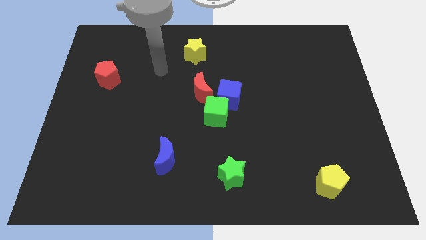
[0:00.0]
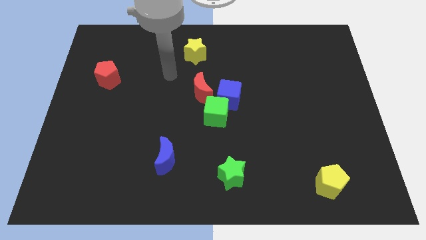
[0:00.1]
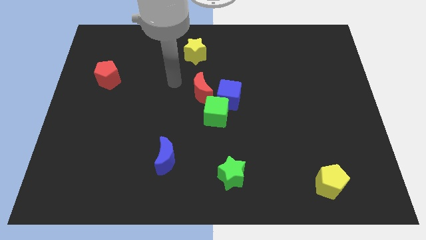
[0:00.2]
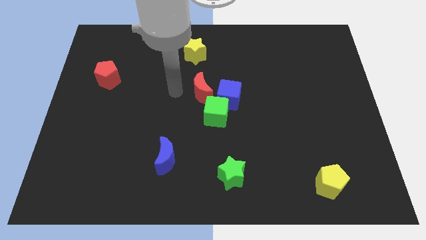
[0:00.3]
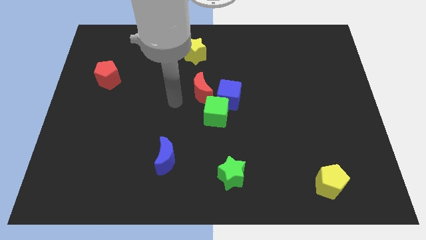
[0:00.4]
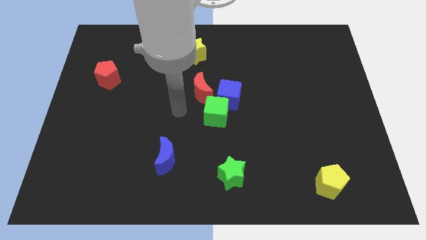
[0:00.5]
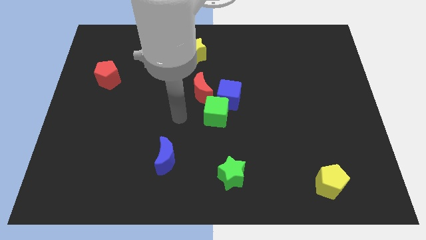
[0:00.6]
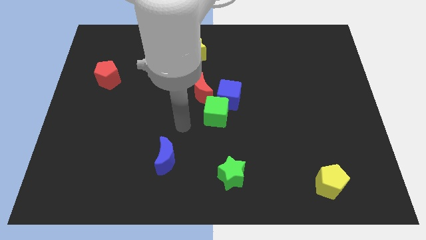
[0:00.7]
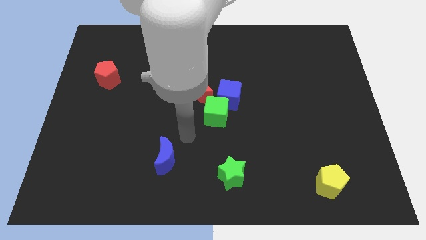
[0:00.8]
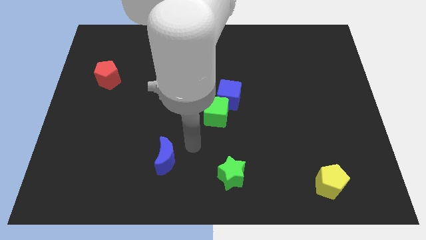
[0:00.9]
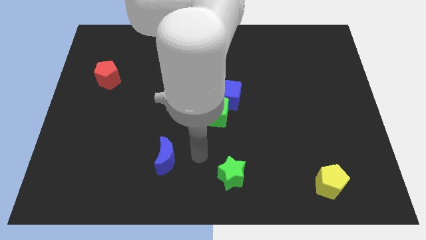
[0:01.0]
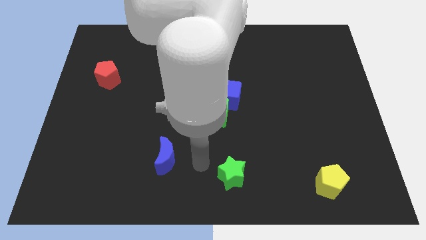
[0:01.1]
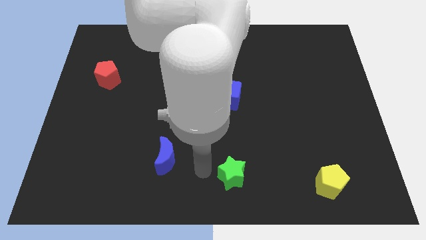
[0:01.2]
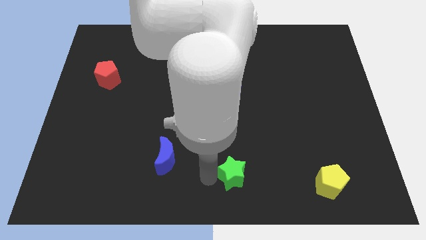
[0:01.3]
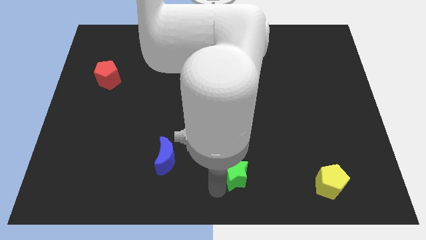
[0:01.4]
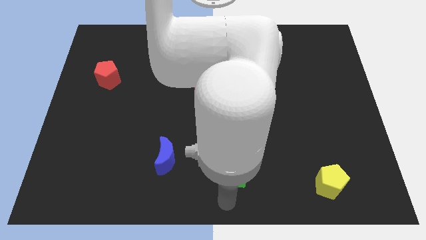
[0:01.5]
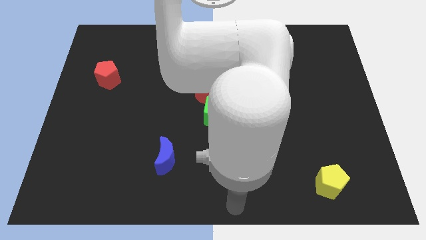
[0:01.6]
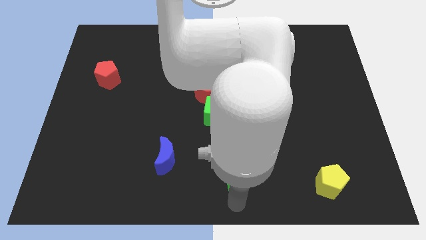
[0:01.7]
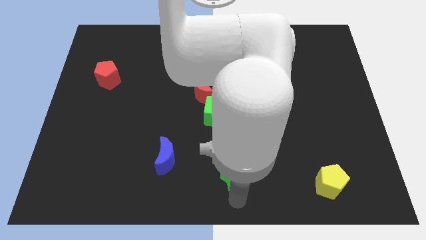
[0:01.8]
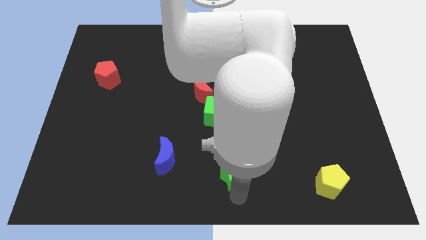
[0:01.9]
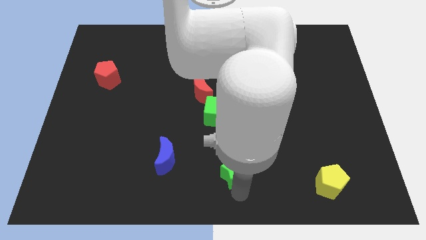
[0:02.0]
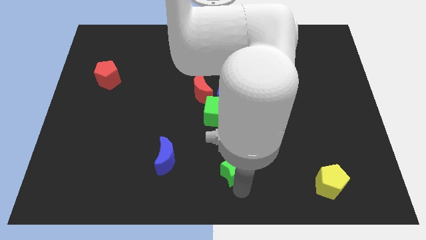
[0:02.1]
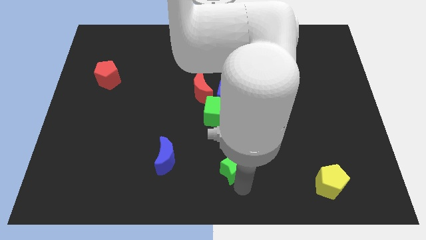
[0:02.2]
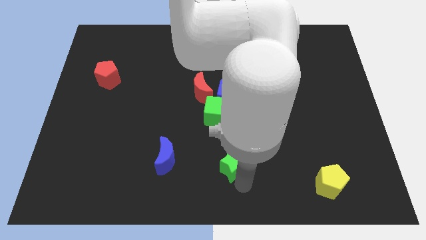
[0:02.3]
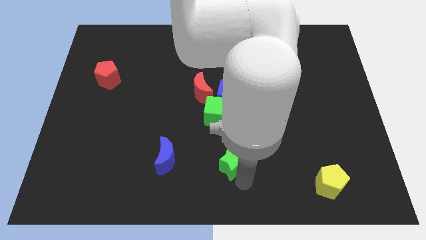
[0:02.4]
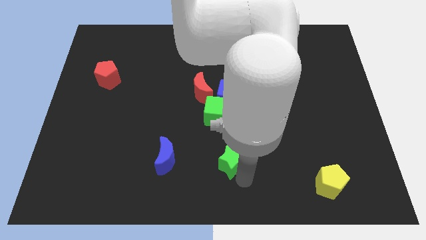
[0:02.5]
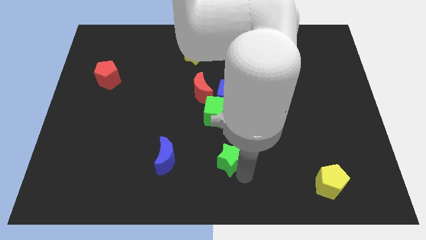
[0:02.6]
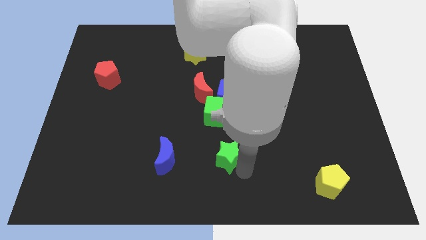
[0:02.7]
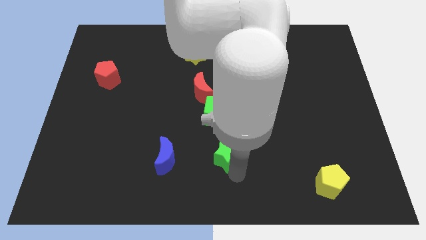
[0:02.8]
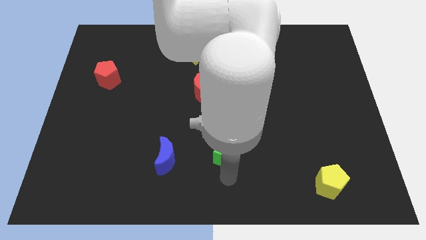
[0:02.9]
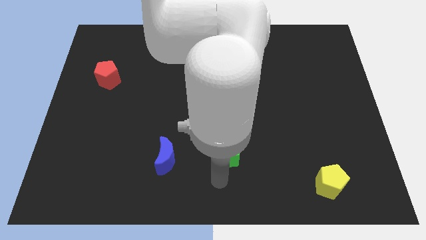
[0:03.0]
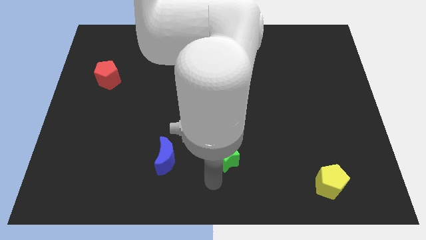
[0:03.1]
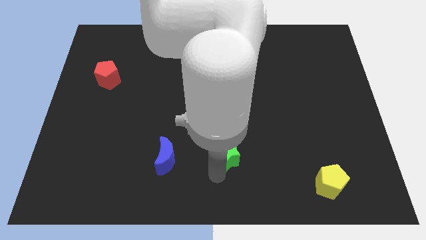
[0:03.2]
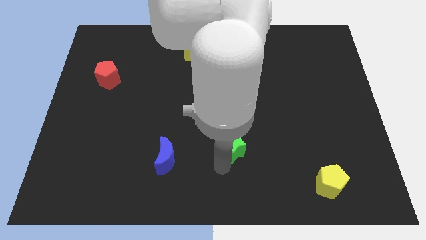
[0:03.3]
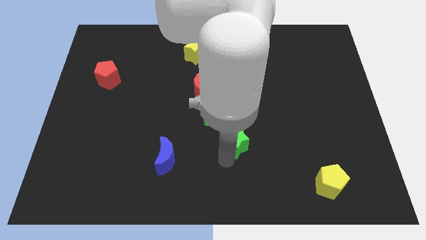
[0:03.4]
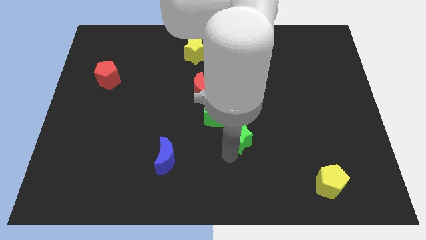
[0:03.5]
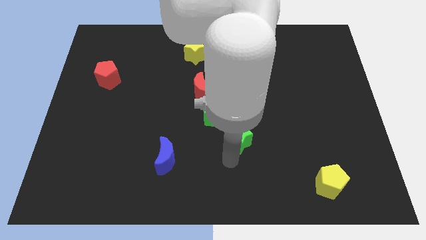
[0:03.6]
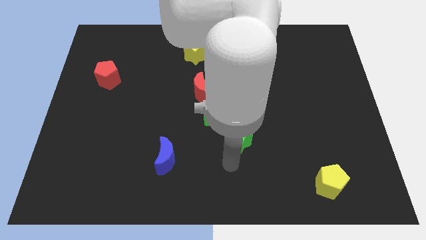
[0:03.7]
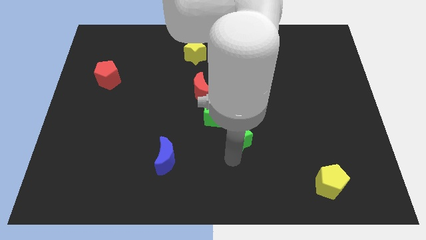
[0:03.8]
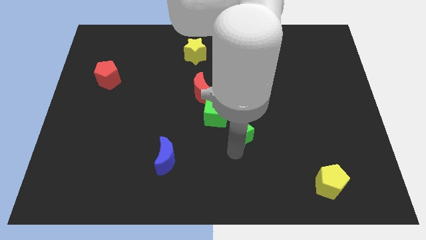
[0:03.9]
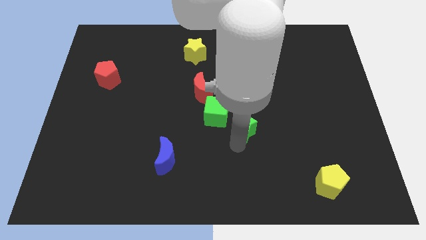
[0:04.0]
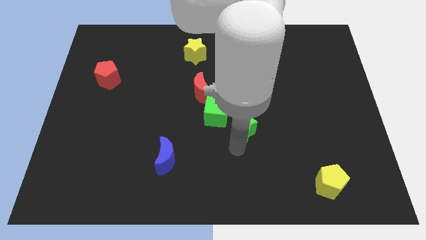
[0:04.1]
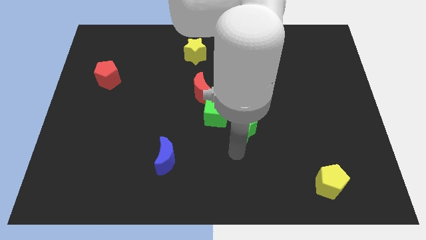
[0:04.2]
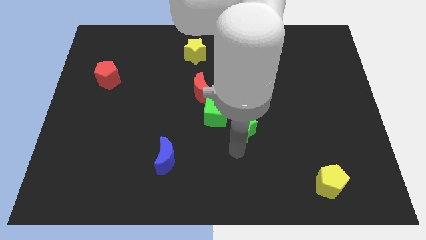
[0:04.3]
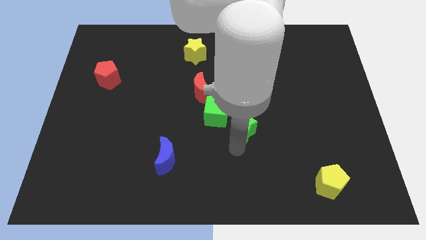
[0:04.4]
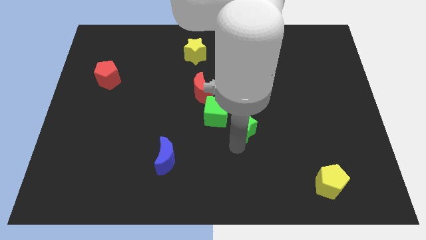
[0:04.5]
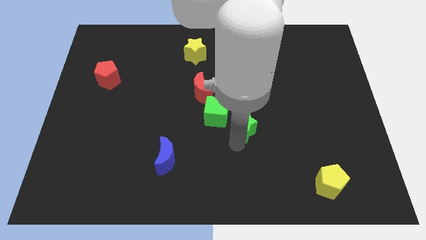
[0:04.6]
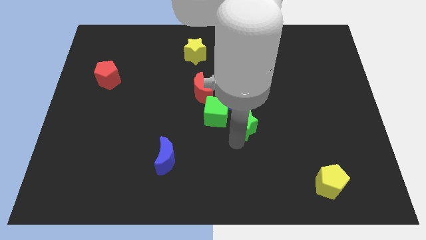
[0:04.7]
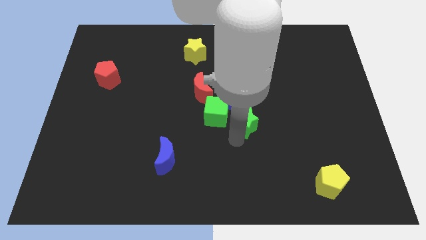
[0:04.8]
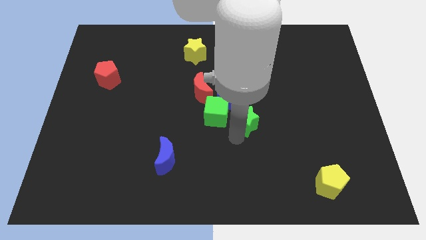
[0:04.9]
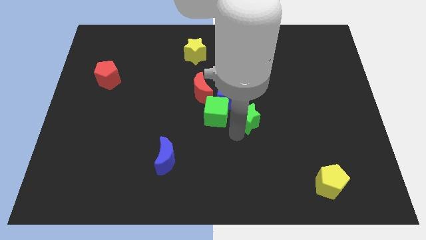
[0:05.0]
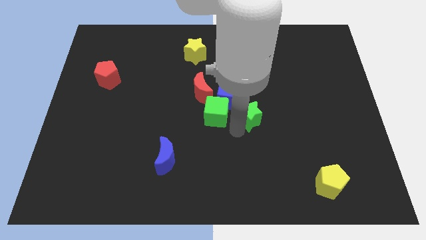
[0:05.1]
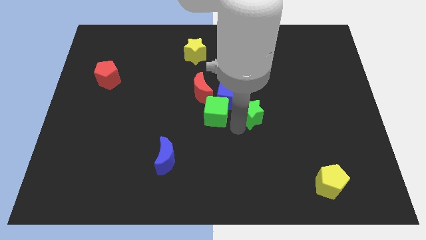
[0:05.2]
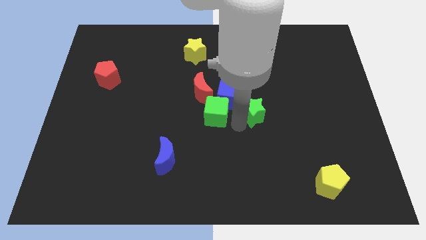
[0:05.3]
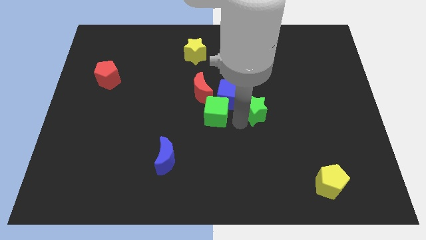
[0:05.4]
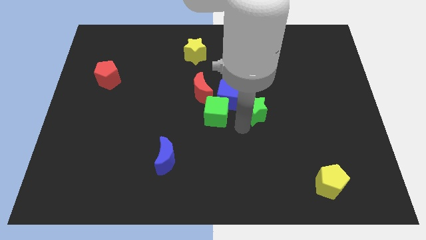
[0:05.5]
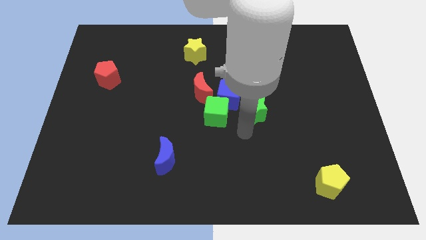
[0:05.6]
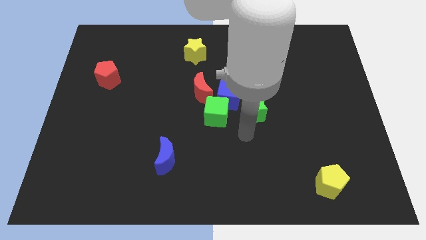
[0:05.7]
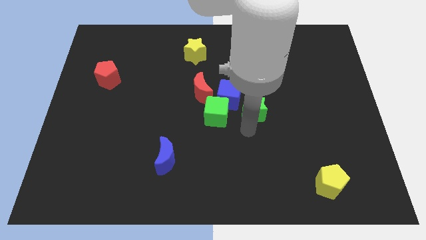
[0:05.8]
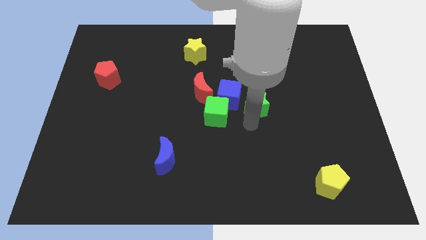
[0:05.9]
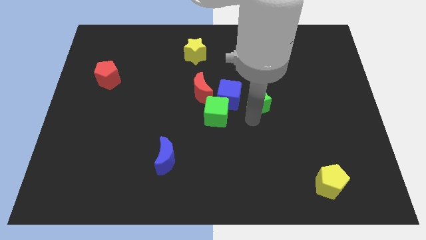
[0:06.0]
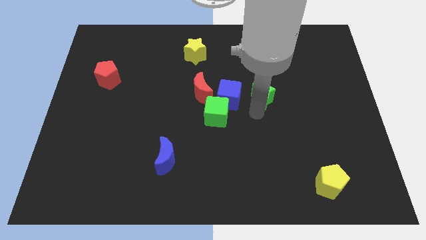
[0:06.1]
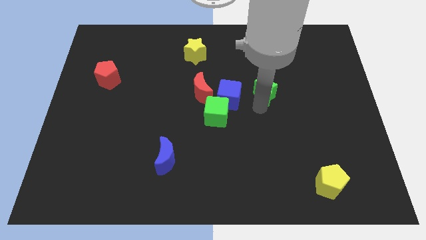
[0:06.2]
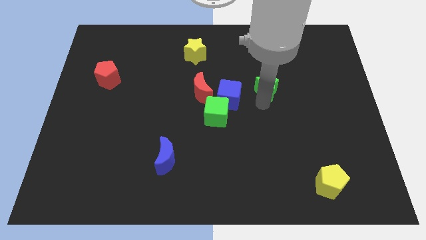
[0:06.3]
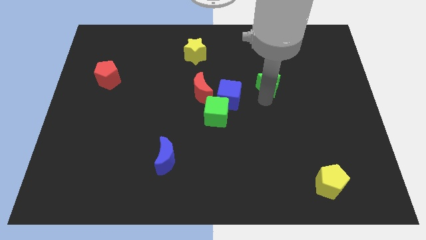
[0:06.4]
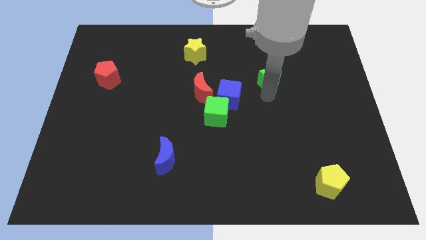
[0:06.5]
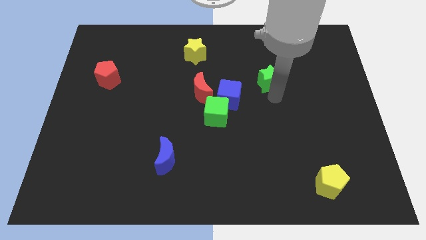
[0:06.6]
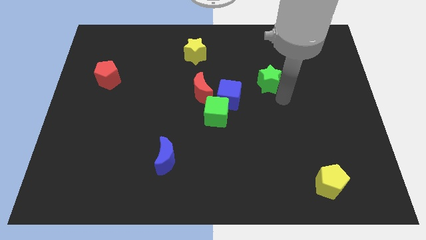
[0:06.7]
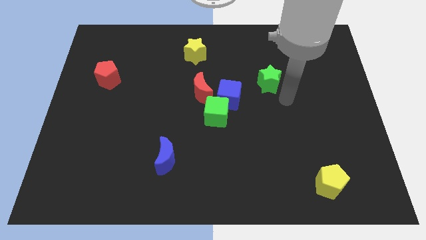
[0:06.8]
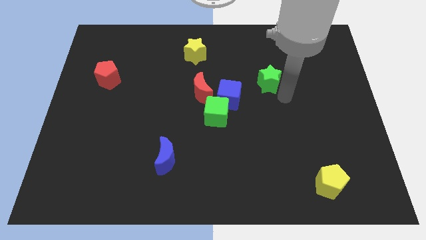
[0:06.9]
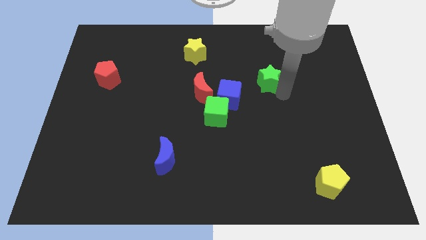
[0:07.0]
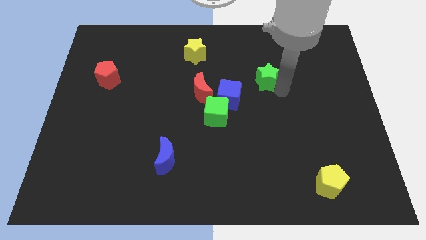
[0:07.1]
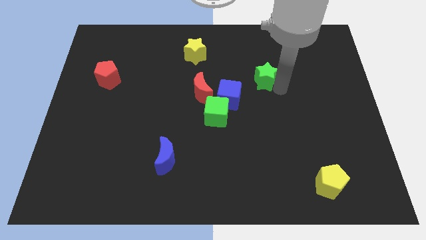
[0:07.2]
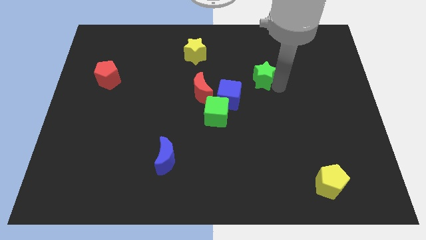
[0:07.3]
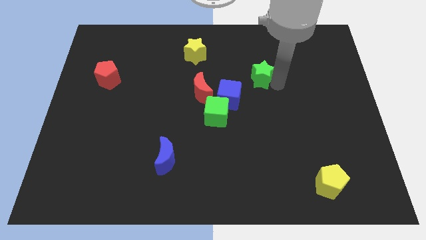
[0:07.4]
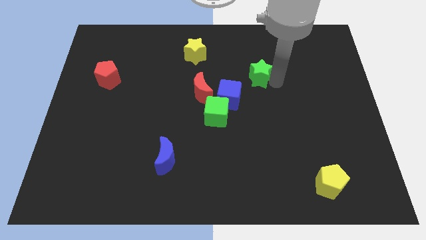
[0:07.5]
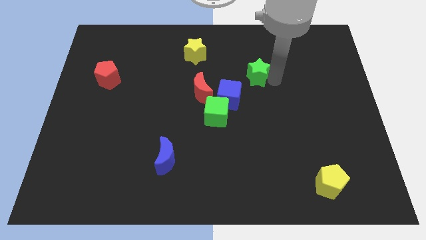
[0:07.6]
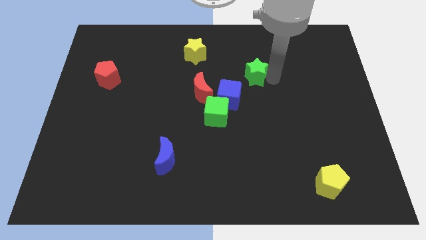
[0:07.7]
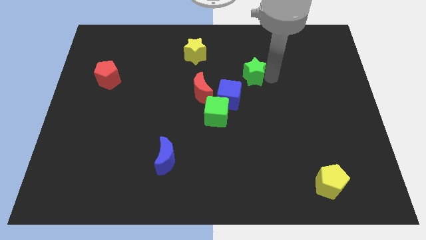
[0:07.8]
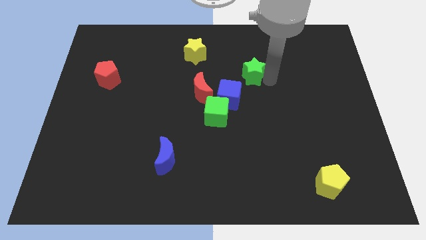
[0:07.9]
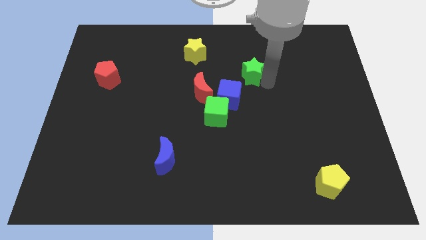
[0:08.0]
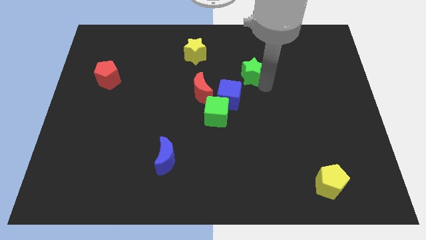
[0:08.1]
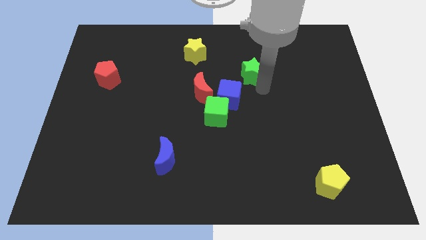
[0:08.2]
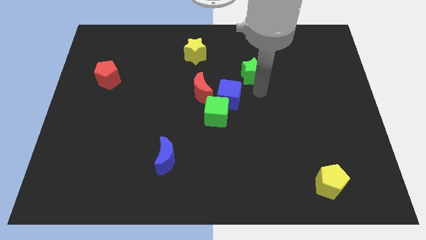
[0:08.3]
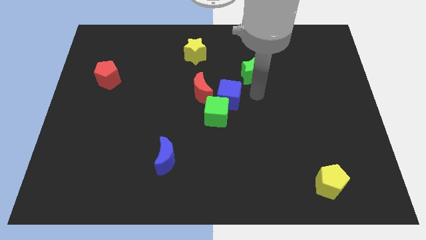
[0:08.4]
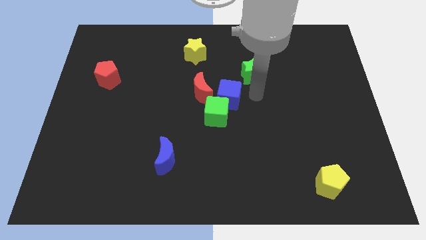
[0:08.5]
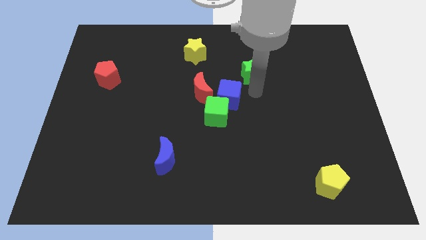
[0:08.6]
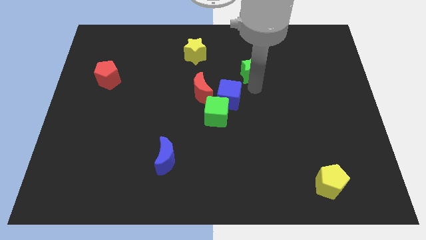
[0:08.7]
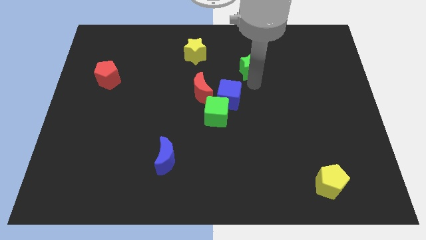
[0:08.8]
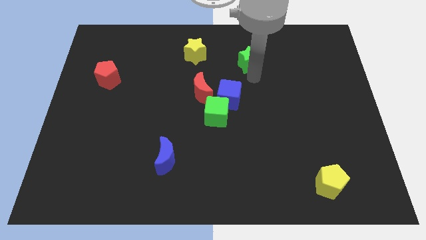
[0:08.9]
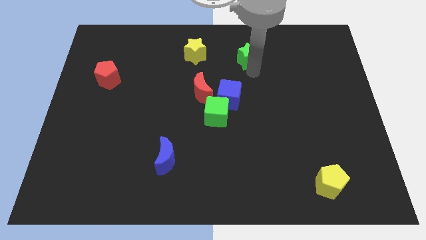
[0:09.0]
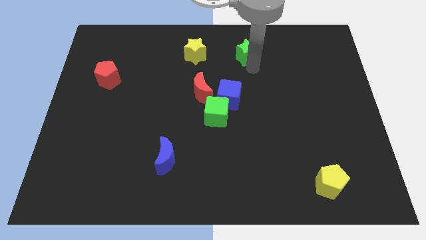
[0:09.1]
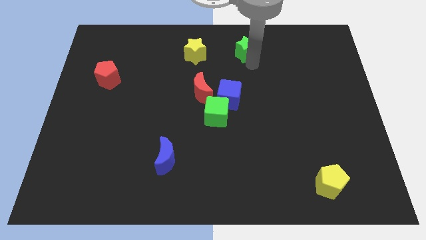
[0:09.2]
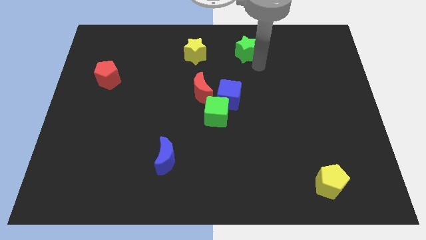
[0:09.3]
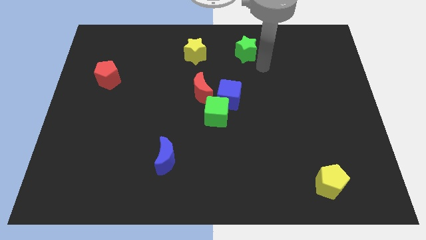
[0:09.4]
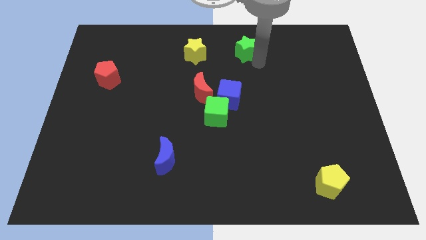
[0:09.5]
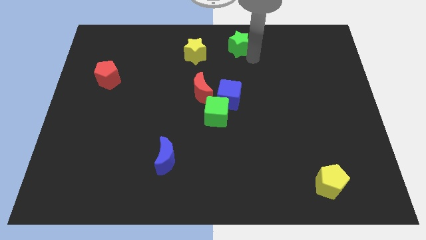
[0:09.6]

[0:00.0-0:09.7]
slide the green star to the towards your base
